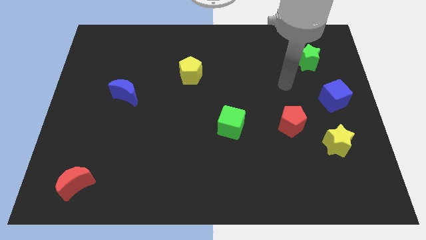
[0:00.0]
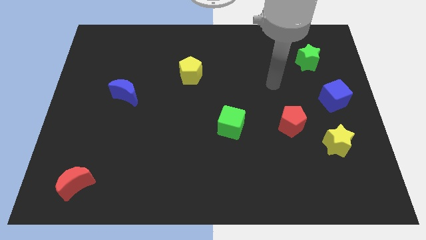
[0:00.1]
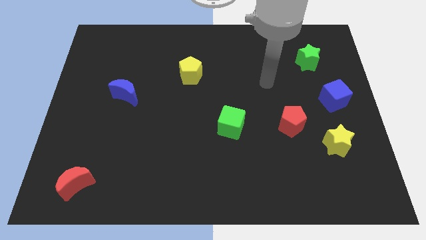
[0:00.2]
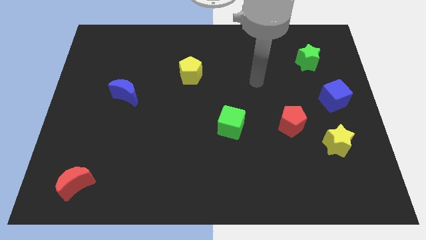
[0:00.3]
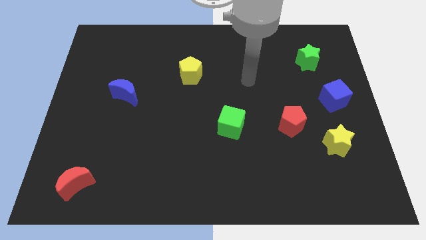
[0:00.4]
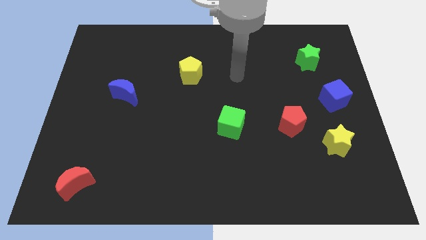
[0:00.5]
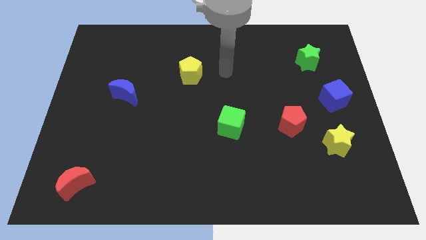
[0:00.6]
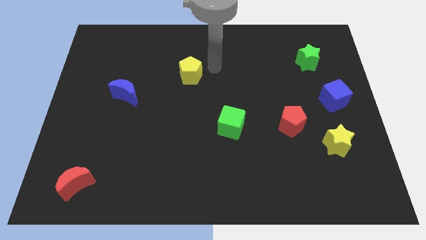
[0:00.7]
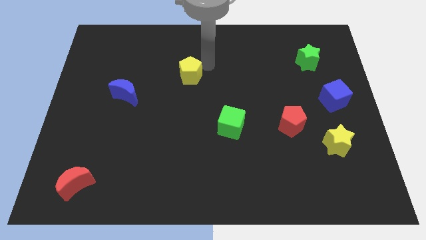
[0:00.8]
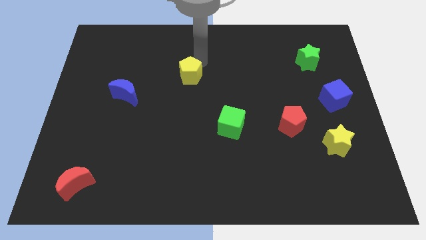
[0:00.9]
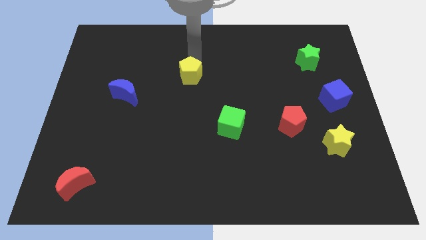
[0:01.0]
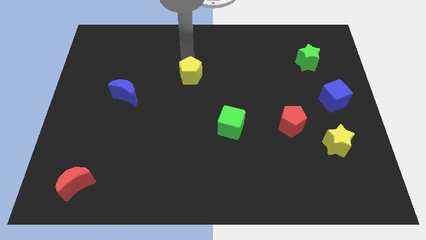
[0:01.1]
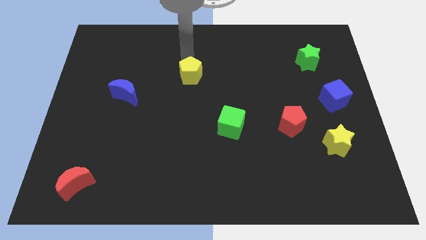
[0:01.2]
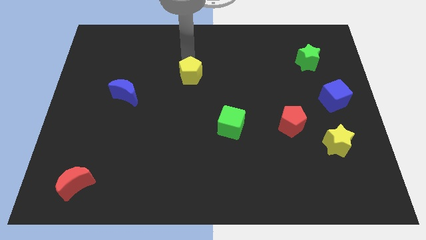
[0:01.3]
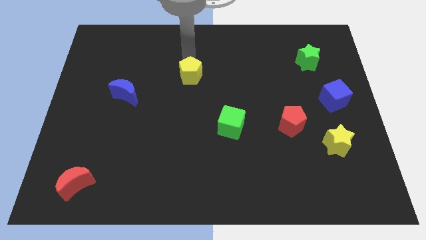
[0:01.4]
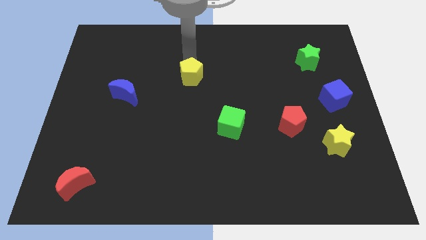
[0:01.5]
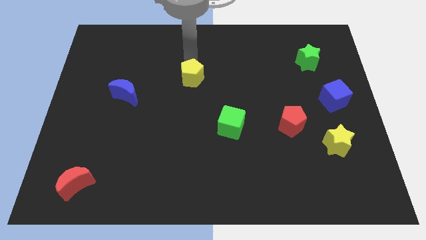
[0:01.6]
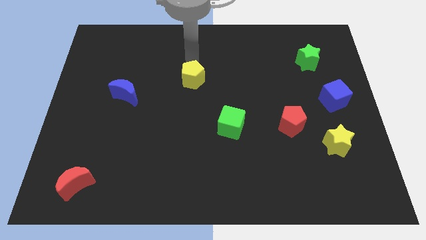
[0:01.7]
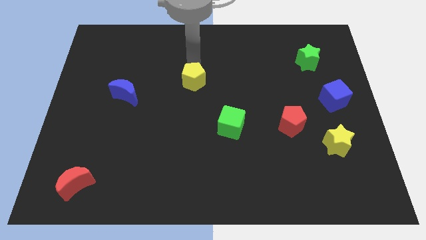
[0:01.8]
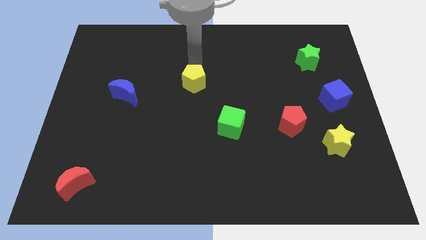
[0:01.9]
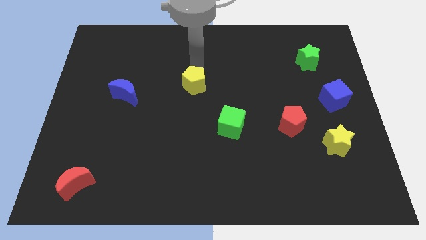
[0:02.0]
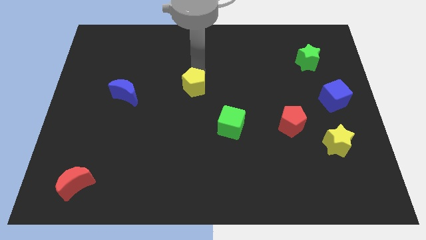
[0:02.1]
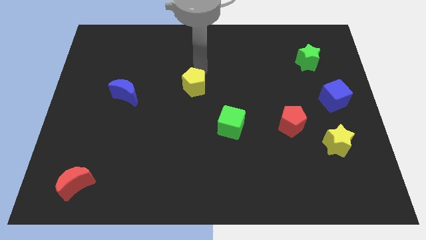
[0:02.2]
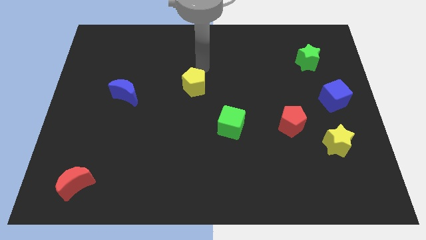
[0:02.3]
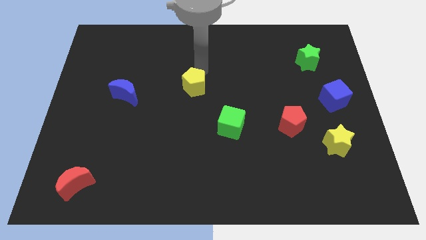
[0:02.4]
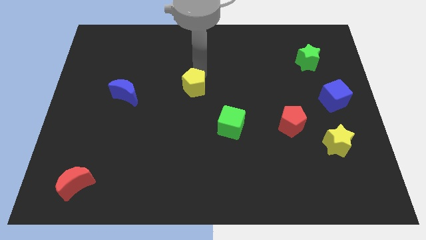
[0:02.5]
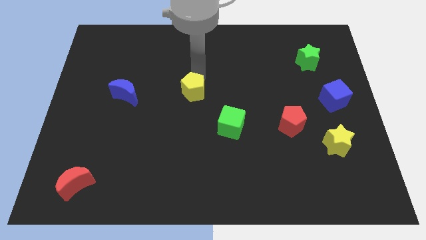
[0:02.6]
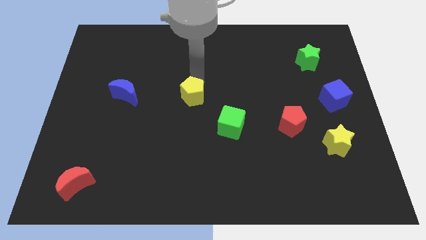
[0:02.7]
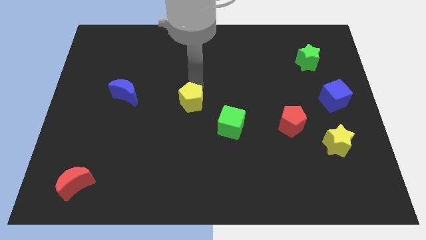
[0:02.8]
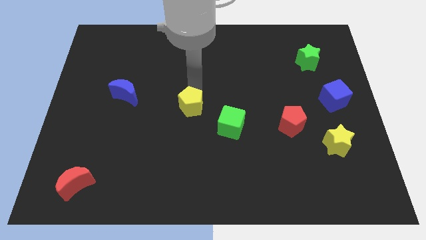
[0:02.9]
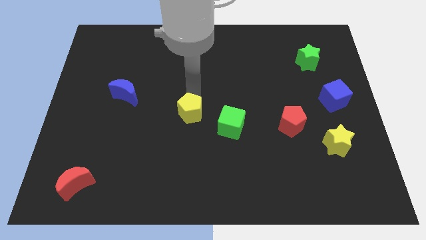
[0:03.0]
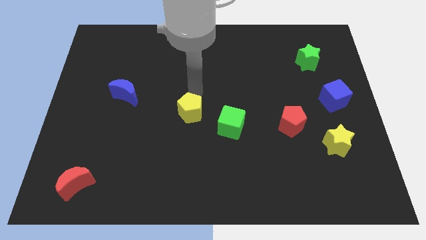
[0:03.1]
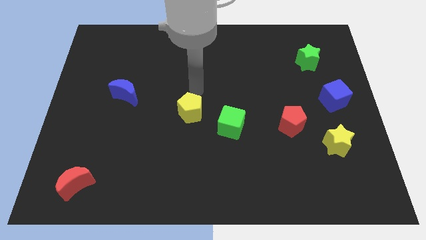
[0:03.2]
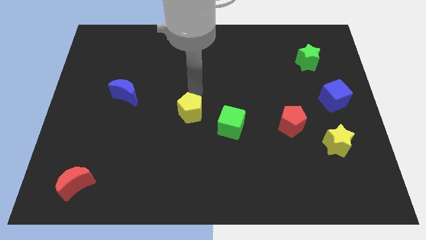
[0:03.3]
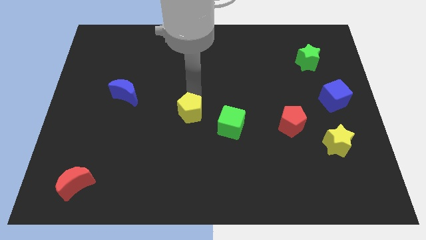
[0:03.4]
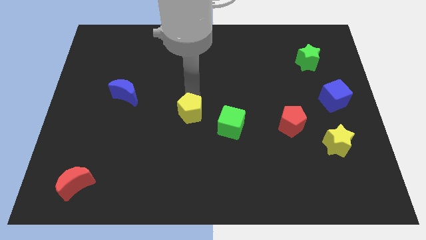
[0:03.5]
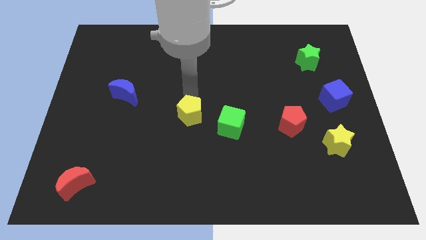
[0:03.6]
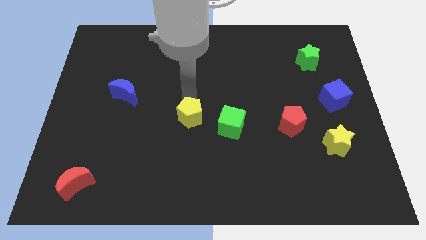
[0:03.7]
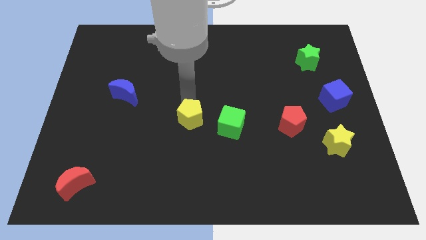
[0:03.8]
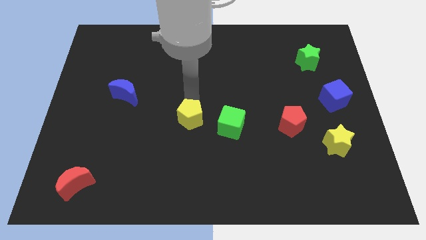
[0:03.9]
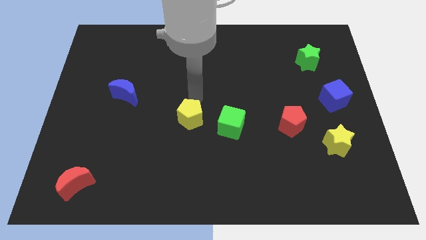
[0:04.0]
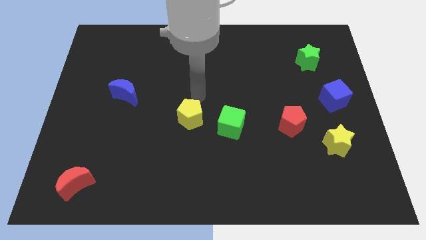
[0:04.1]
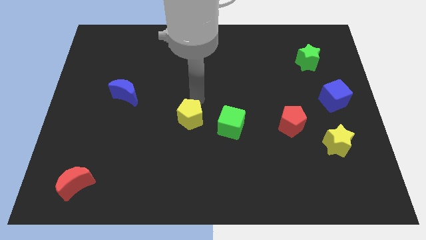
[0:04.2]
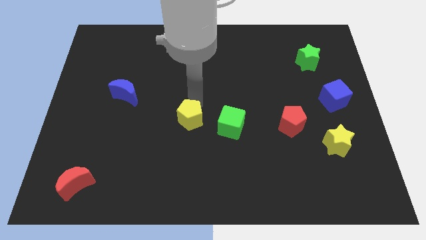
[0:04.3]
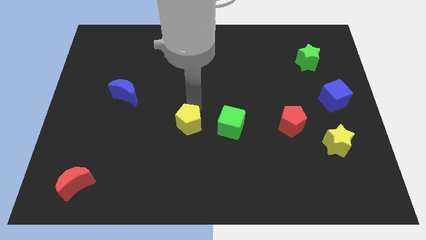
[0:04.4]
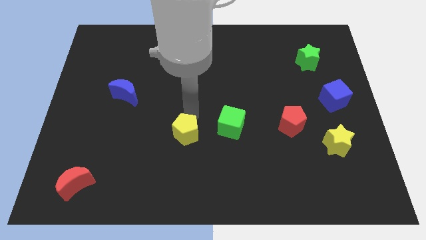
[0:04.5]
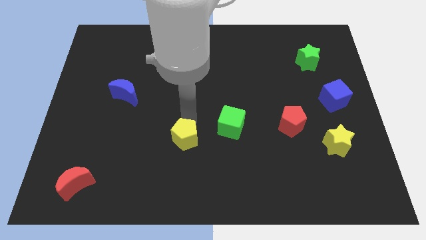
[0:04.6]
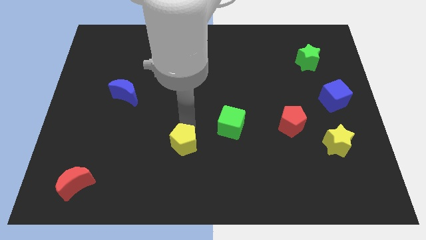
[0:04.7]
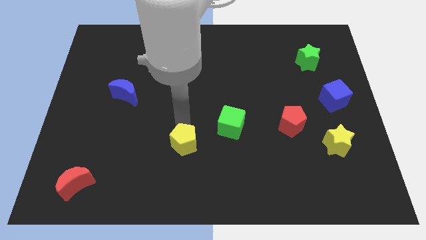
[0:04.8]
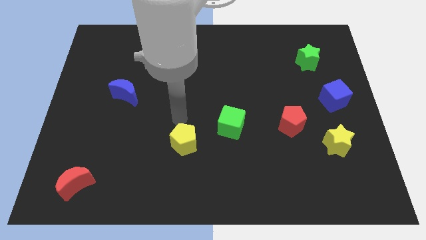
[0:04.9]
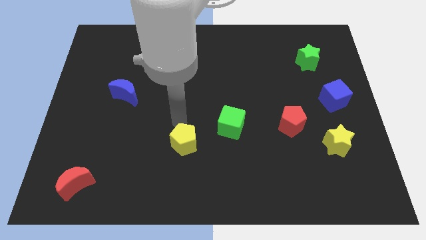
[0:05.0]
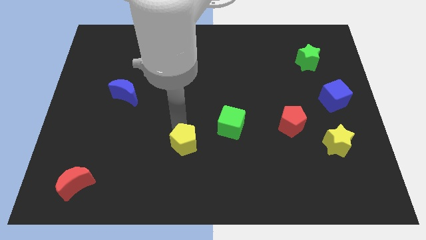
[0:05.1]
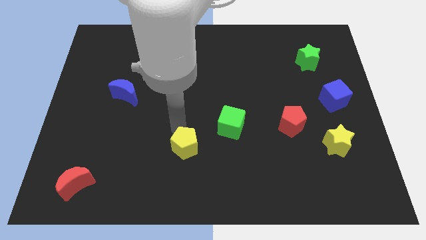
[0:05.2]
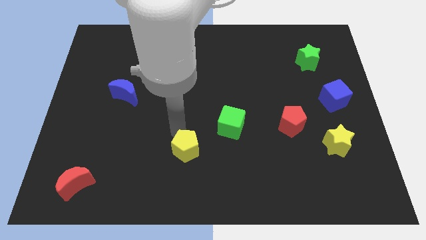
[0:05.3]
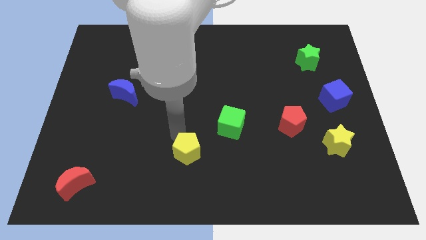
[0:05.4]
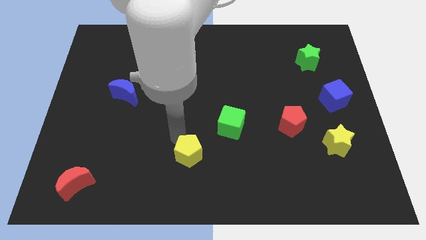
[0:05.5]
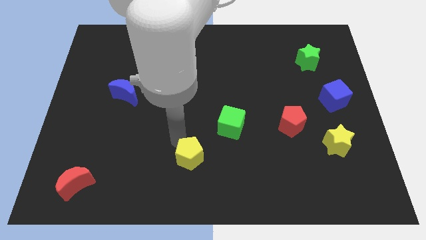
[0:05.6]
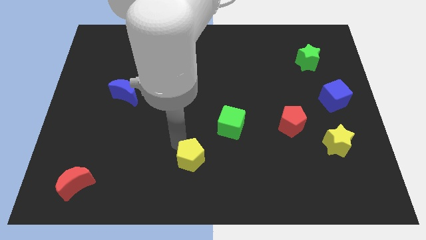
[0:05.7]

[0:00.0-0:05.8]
put the yellow pentagon to the bottom

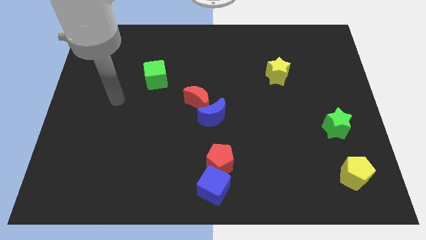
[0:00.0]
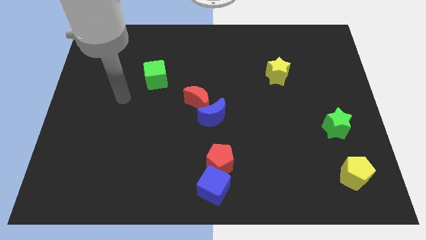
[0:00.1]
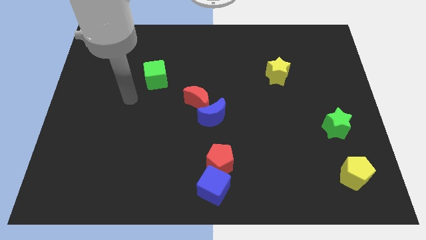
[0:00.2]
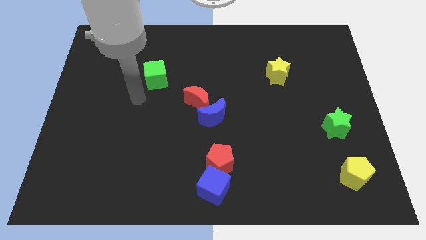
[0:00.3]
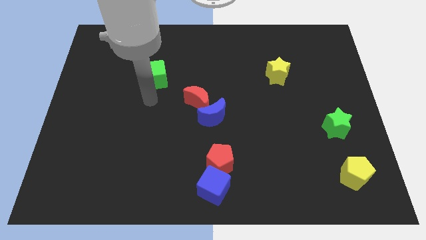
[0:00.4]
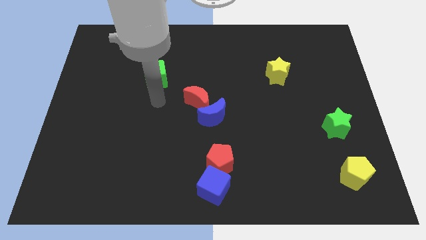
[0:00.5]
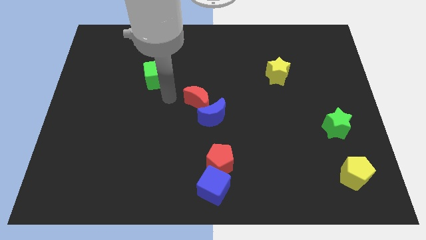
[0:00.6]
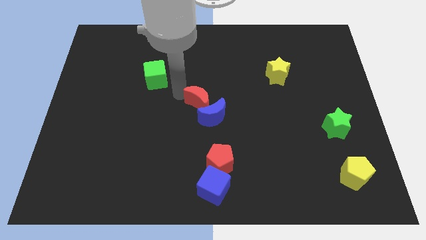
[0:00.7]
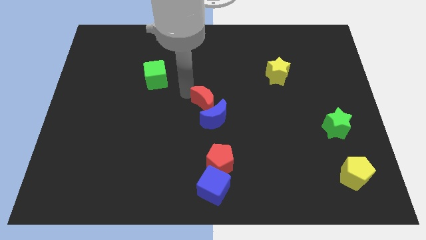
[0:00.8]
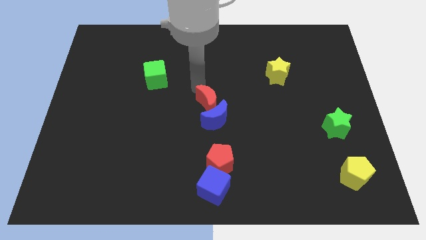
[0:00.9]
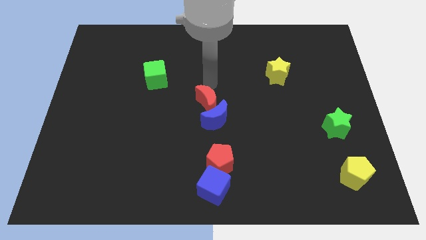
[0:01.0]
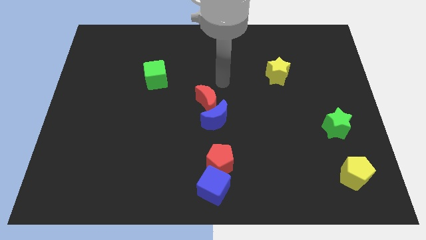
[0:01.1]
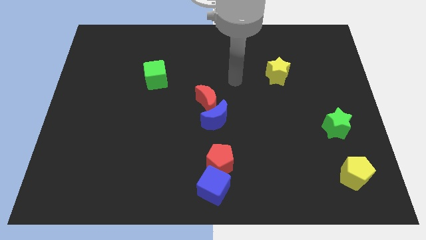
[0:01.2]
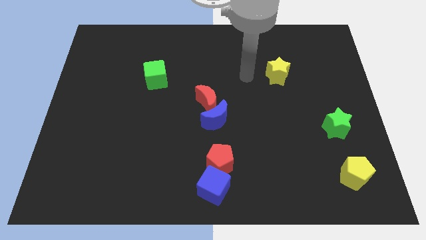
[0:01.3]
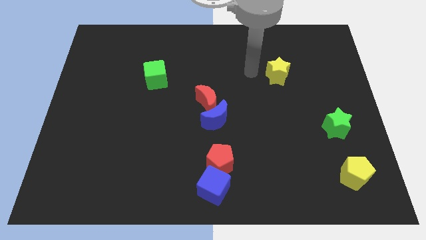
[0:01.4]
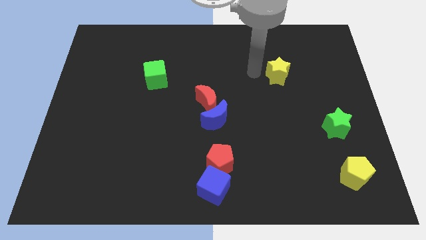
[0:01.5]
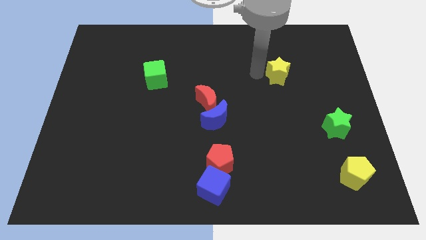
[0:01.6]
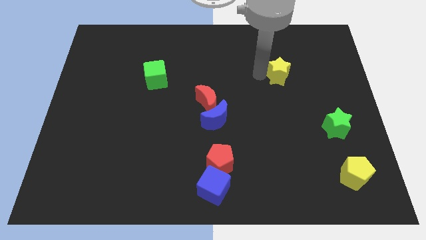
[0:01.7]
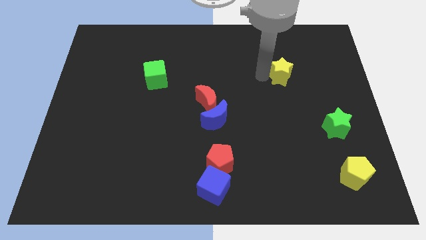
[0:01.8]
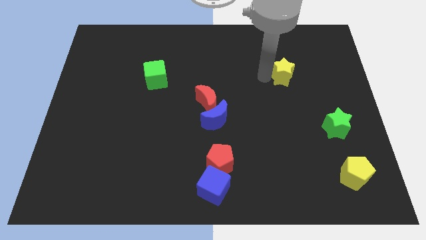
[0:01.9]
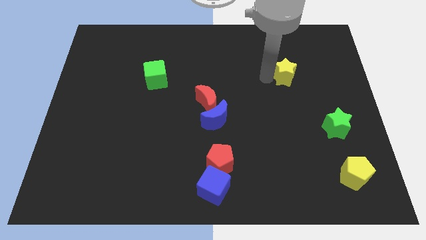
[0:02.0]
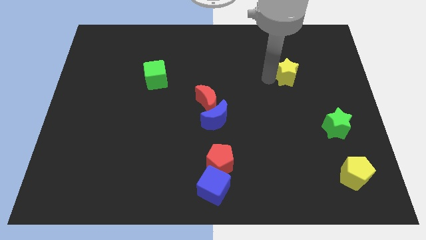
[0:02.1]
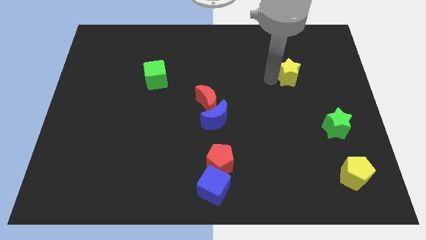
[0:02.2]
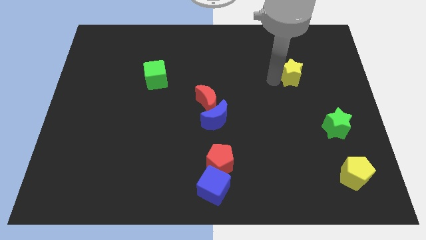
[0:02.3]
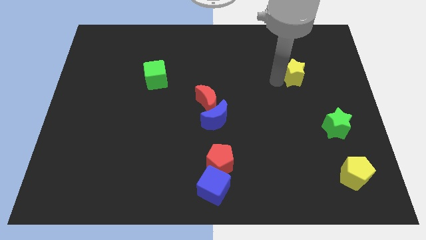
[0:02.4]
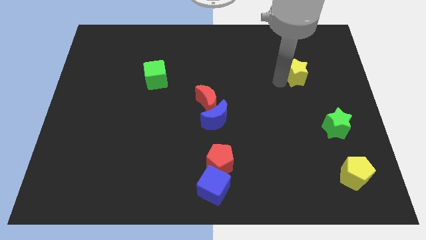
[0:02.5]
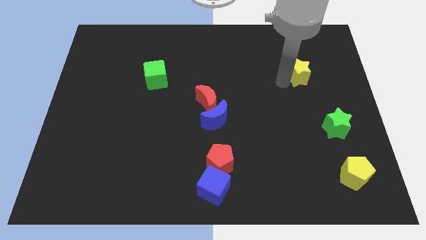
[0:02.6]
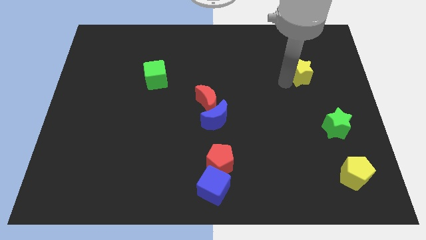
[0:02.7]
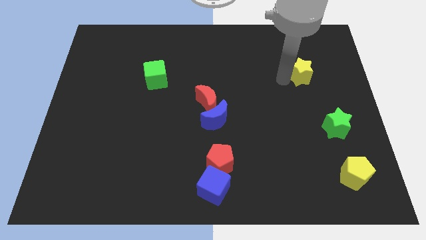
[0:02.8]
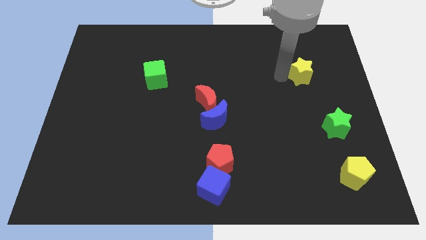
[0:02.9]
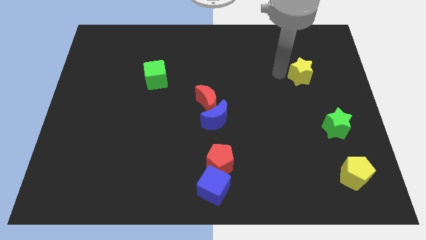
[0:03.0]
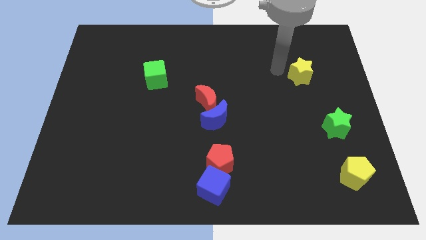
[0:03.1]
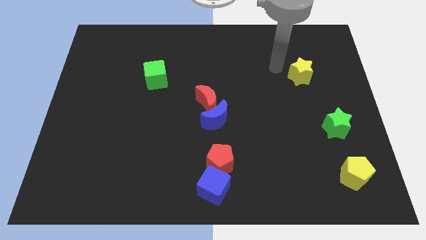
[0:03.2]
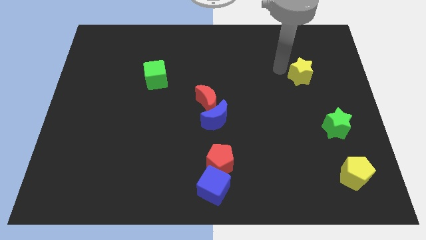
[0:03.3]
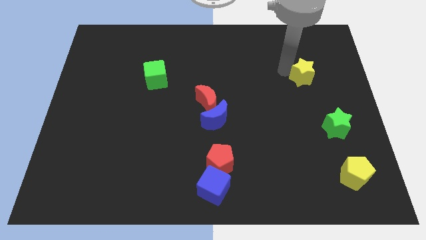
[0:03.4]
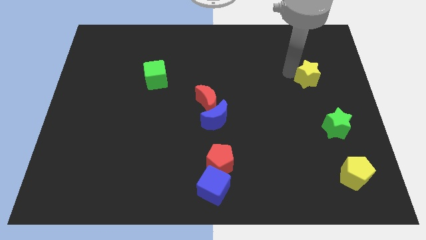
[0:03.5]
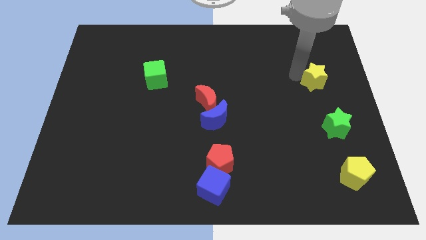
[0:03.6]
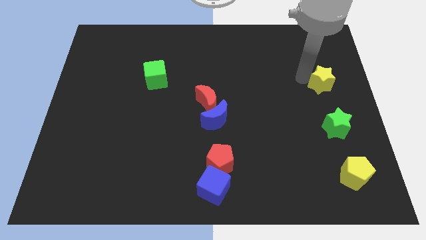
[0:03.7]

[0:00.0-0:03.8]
slide the yellow star to the right side of the board
